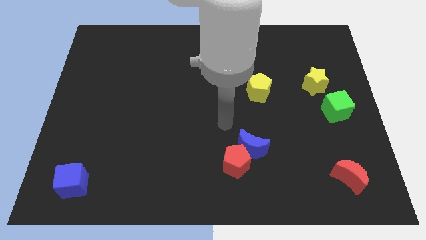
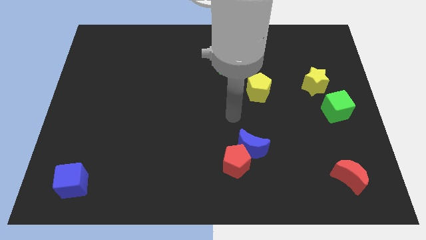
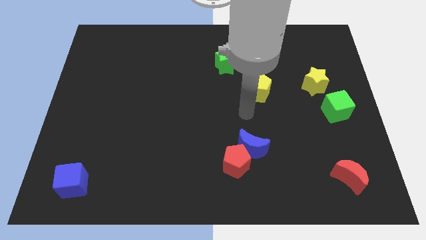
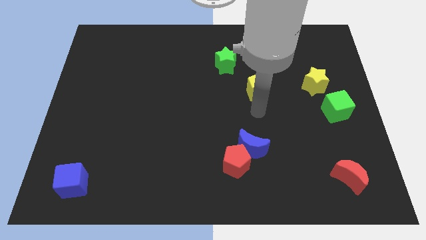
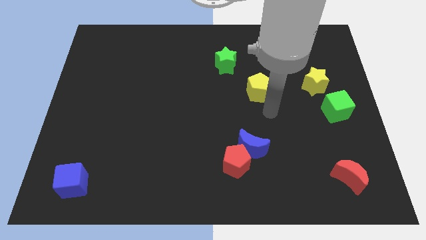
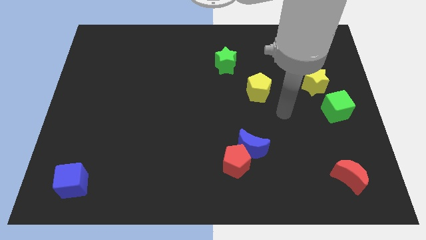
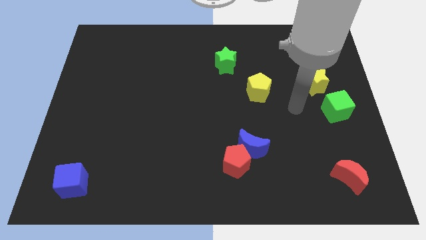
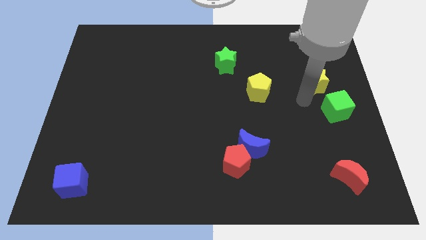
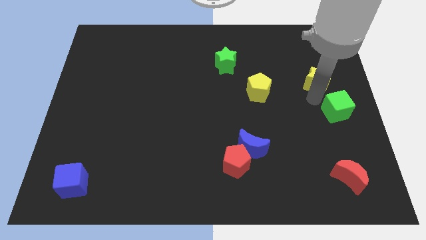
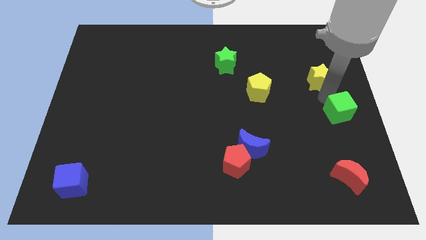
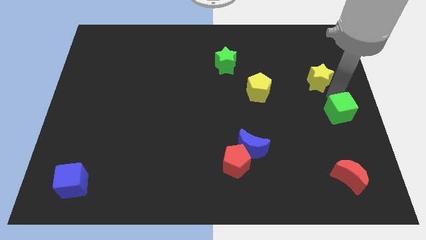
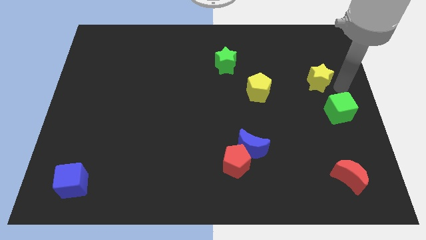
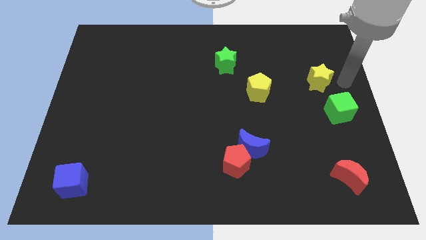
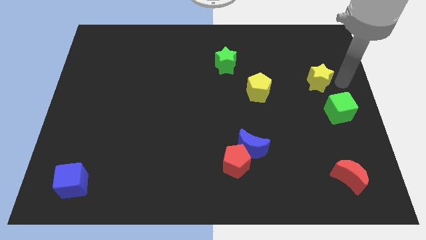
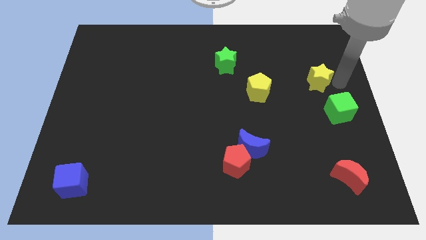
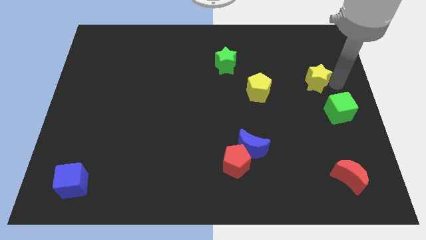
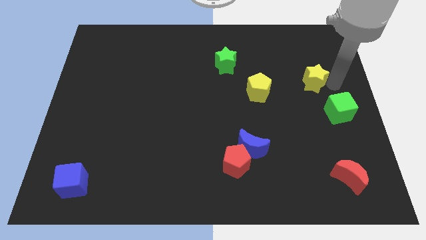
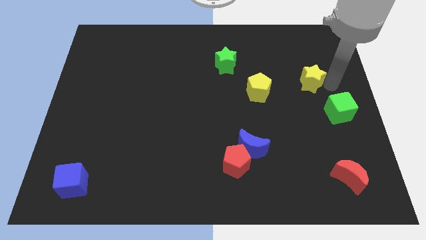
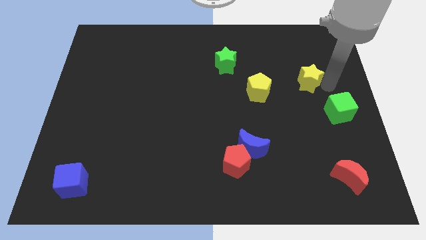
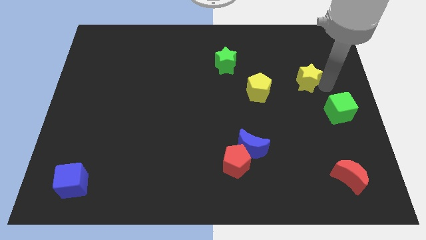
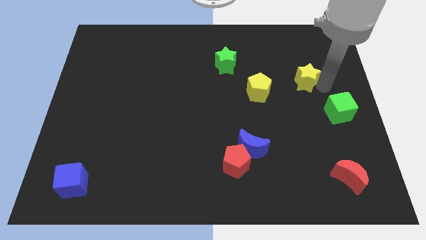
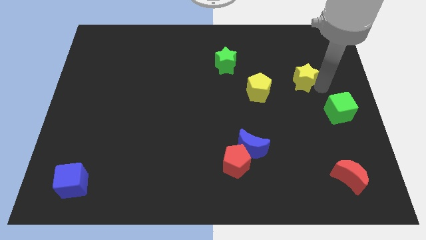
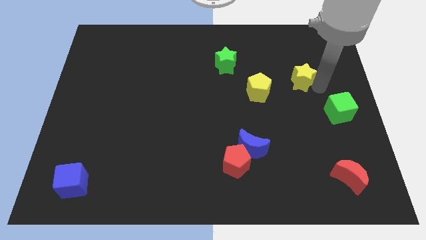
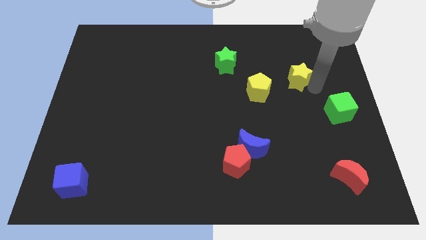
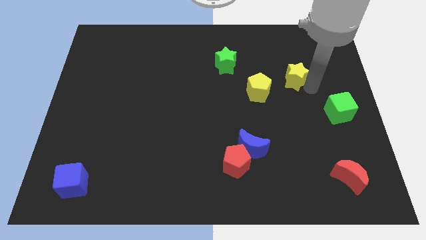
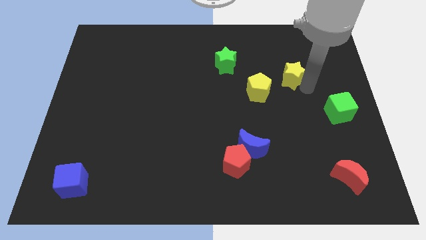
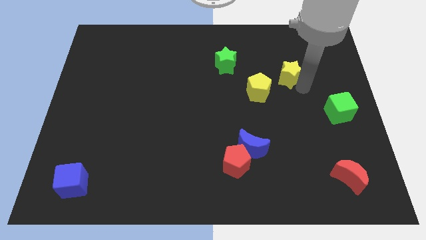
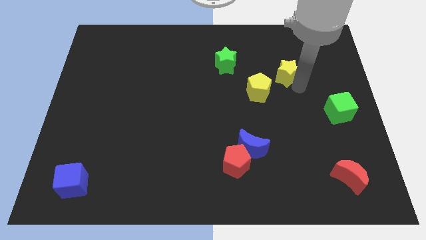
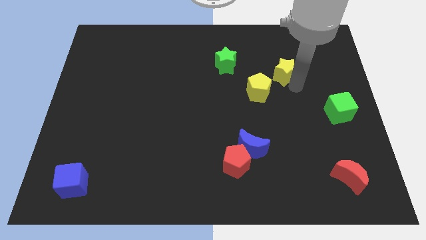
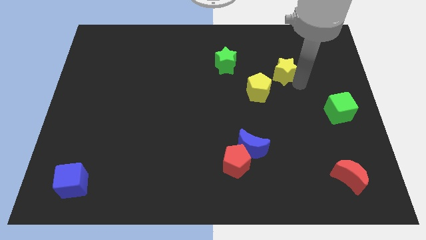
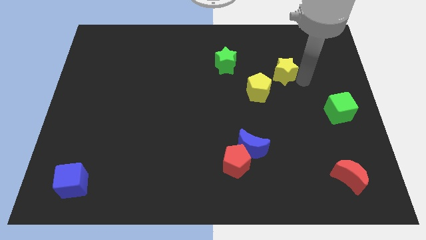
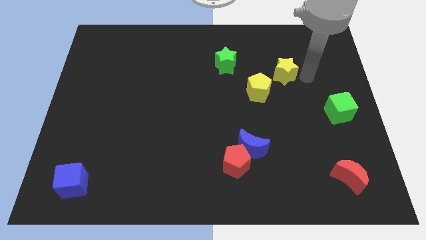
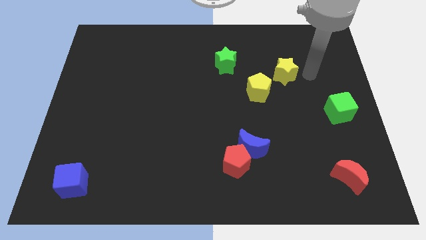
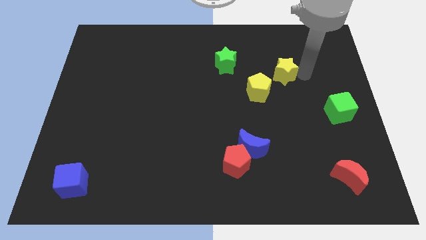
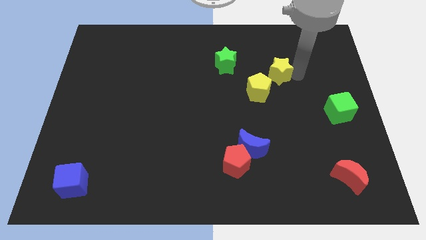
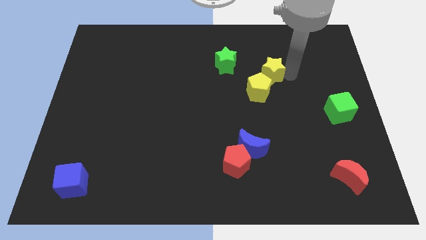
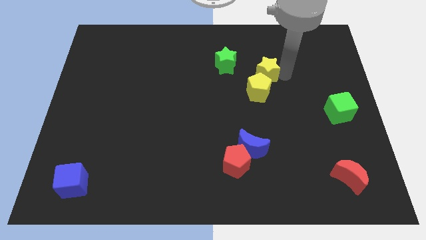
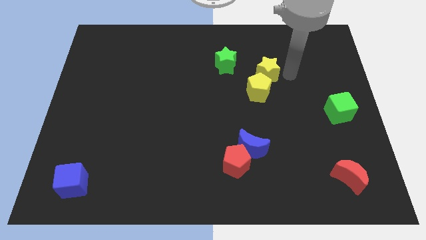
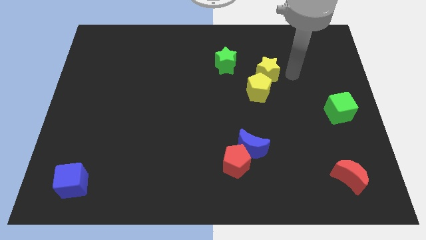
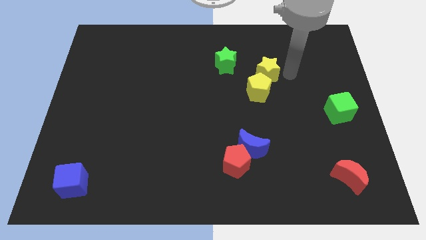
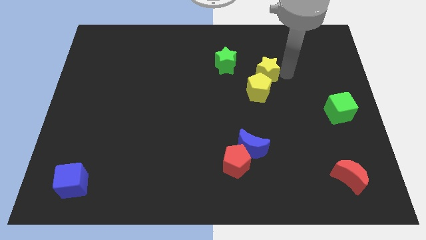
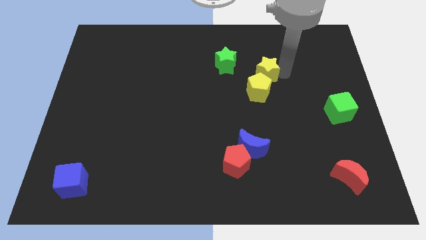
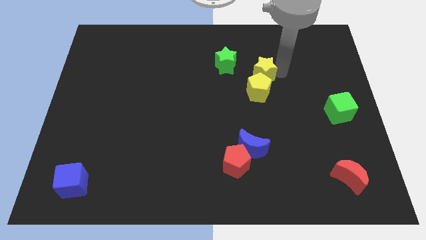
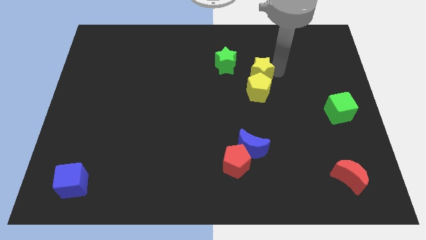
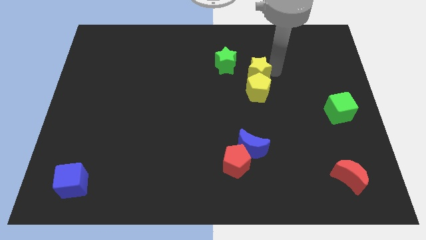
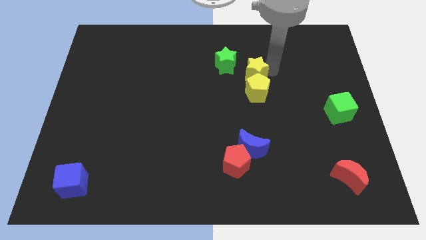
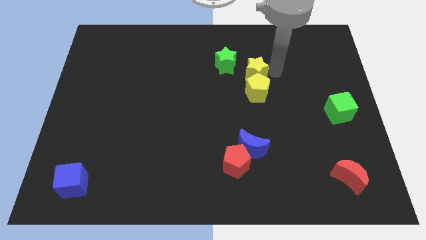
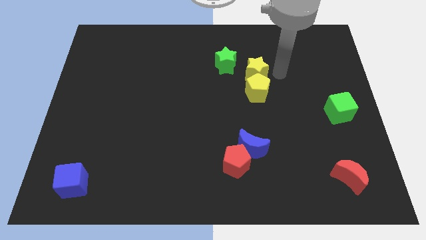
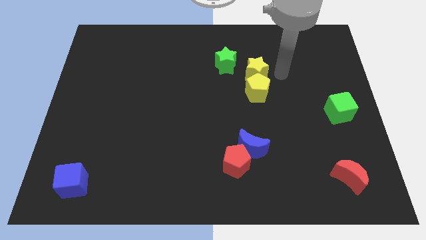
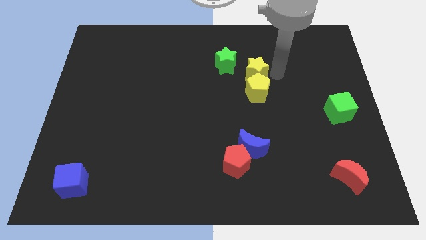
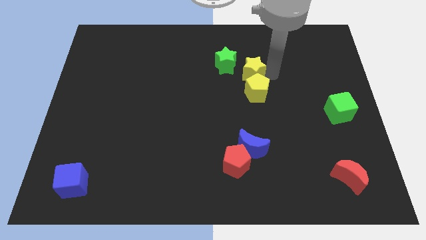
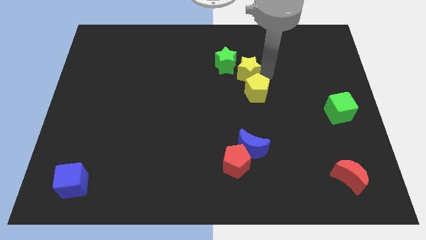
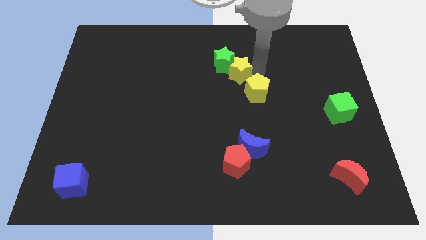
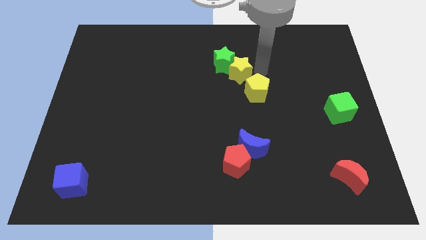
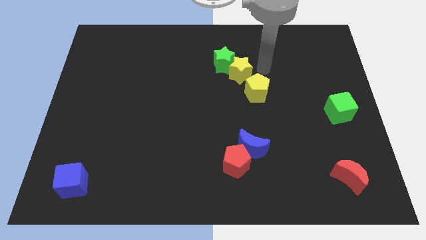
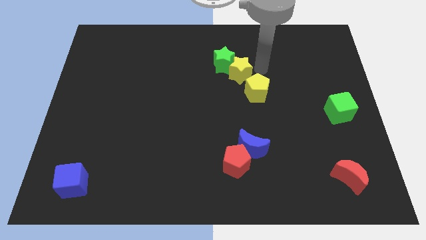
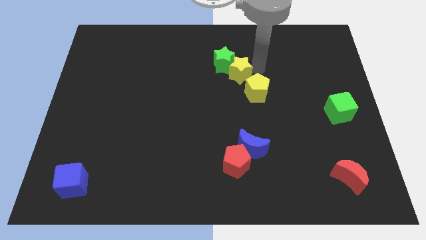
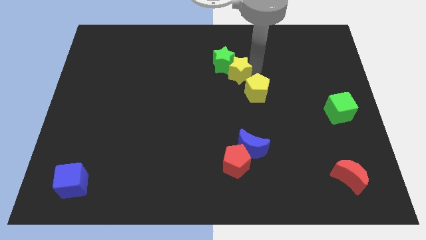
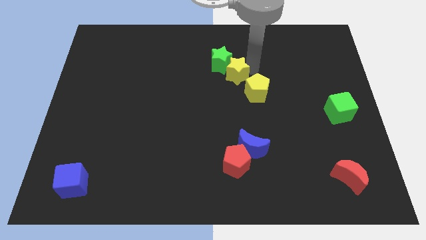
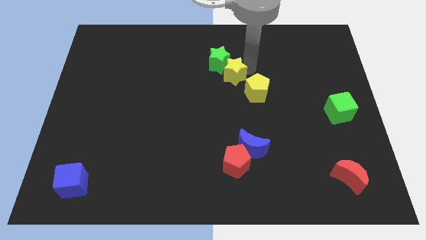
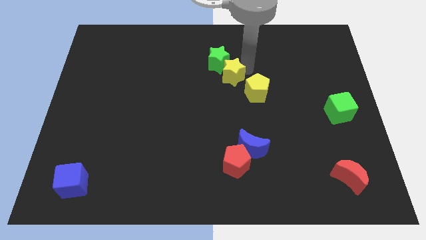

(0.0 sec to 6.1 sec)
push the yellow star to the left

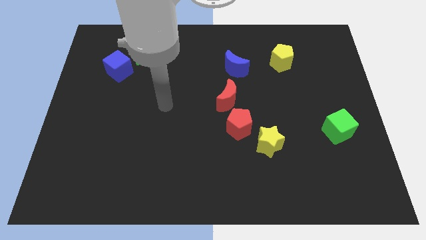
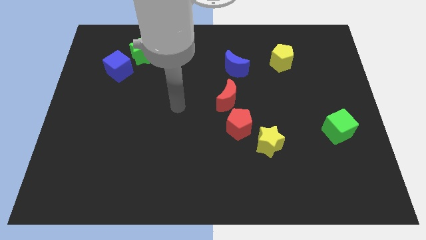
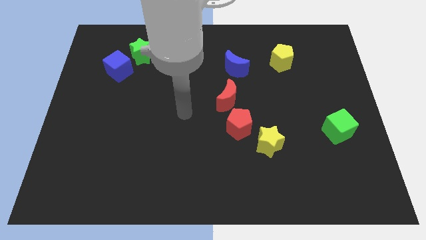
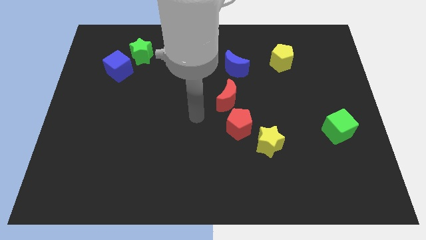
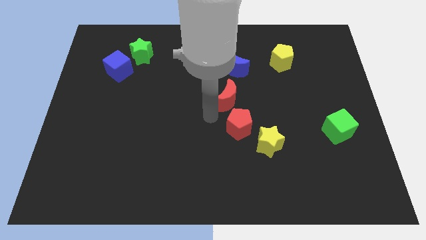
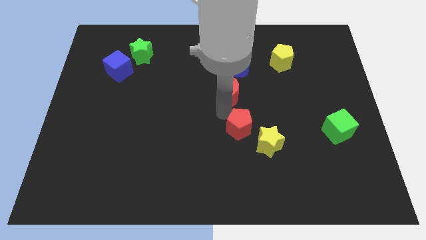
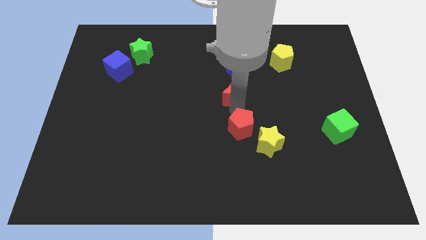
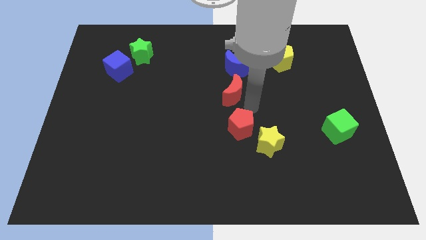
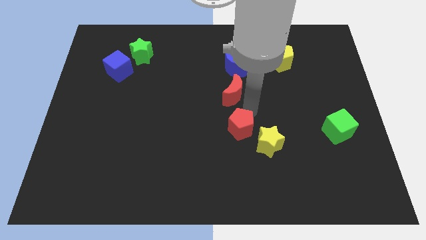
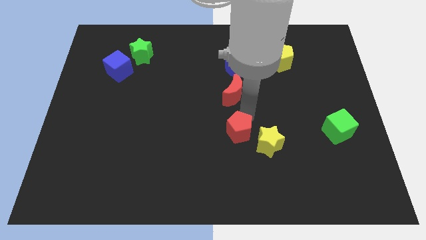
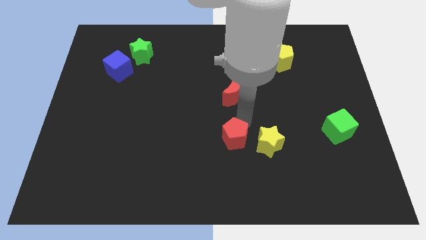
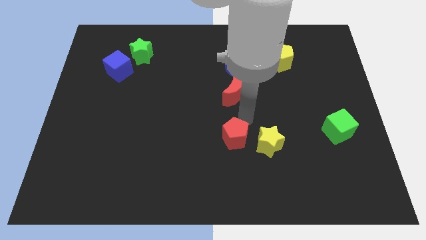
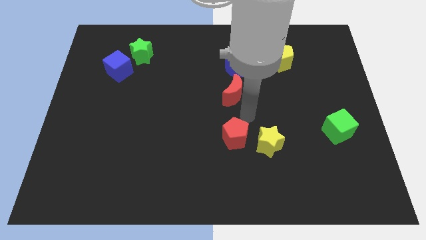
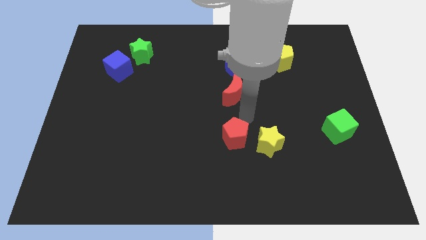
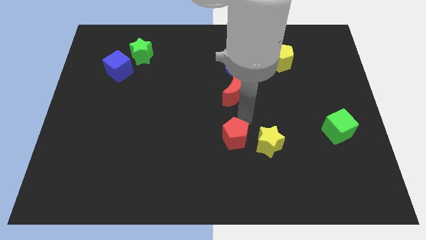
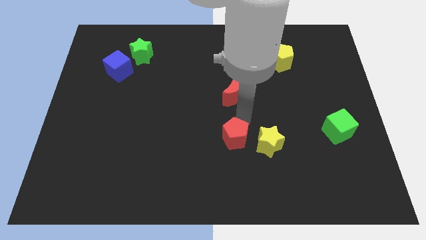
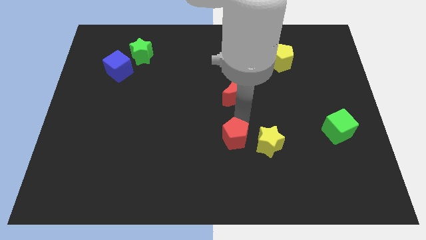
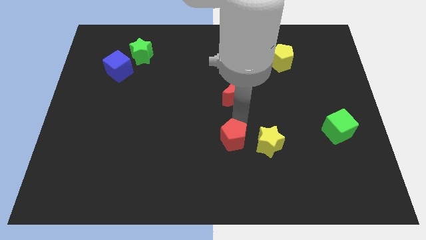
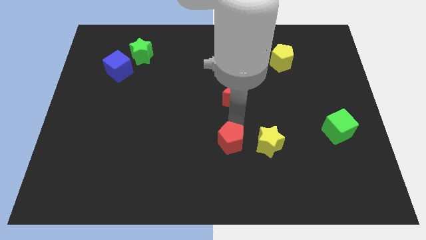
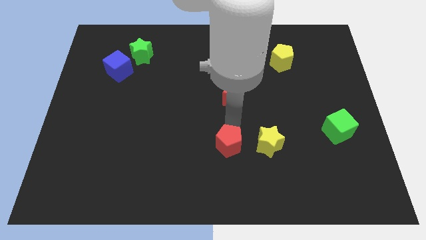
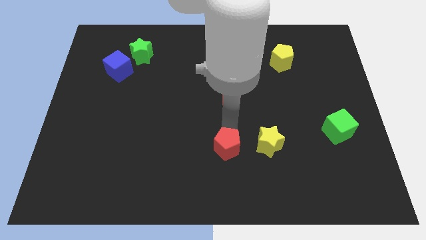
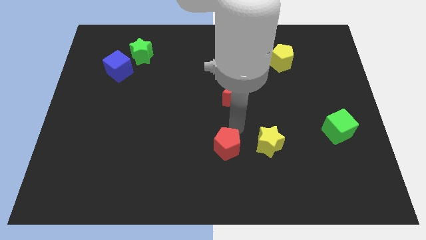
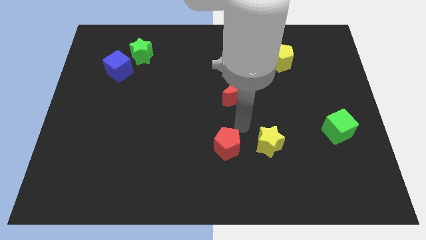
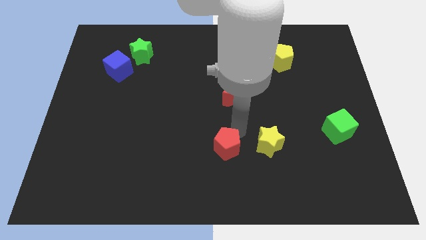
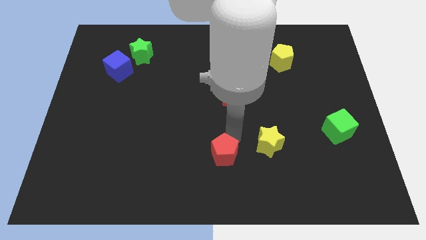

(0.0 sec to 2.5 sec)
push the red pentagon a little bit downwards and left diagonally
